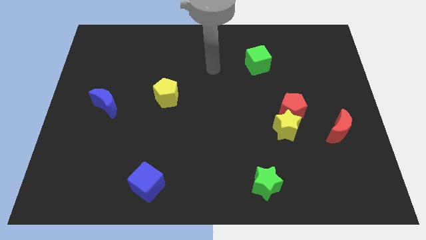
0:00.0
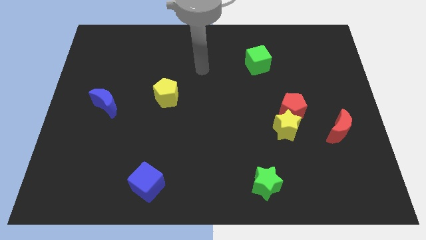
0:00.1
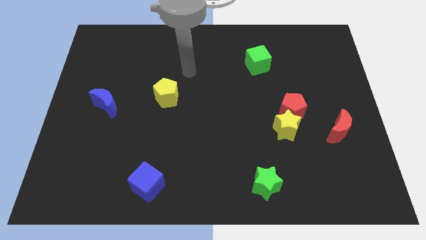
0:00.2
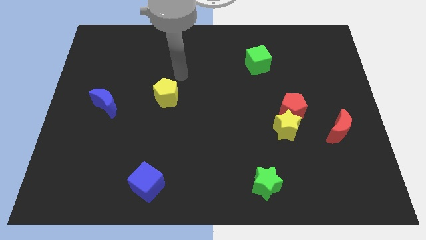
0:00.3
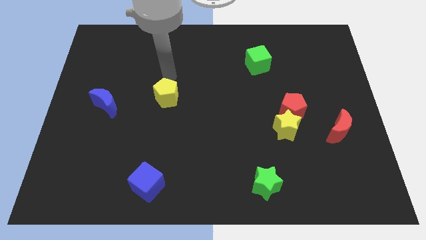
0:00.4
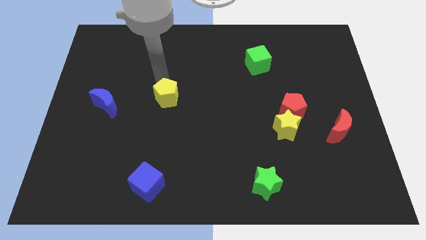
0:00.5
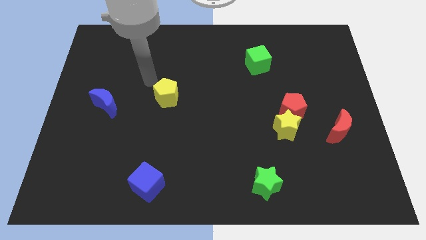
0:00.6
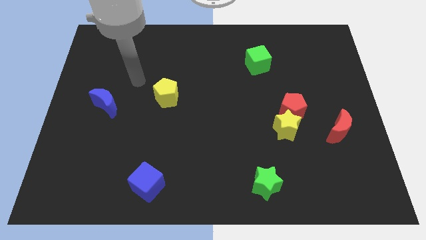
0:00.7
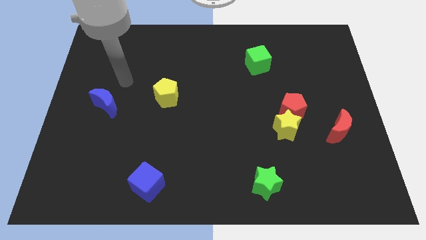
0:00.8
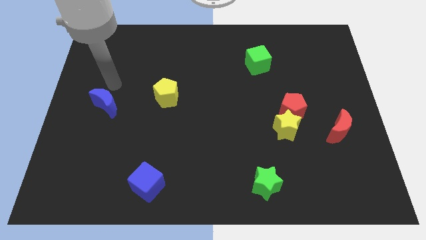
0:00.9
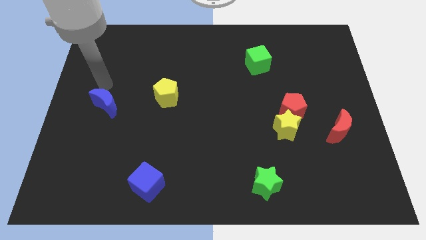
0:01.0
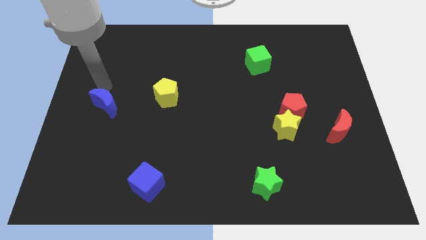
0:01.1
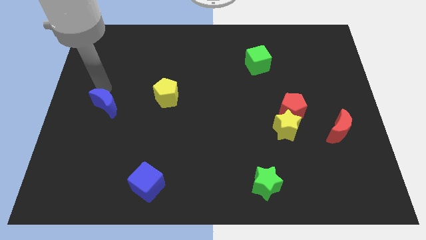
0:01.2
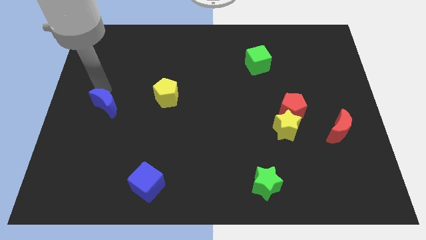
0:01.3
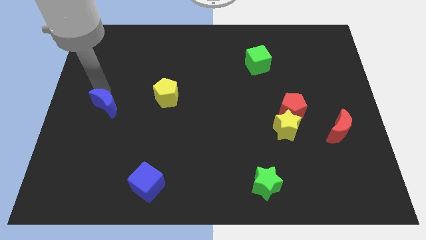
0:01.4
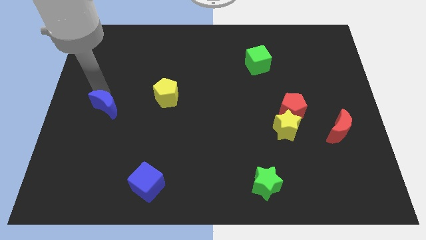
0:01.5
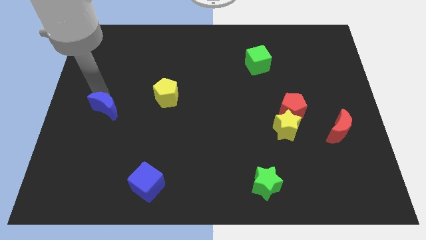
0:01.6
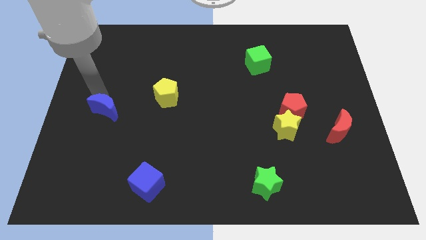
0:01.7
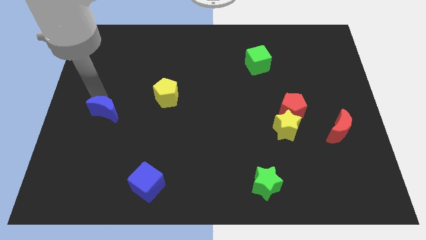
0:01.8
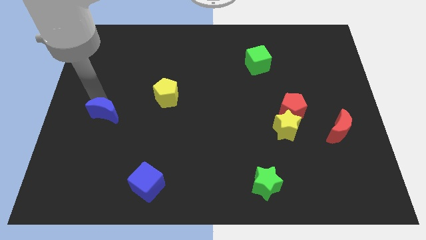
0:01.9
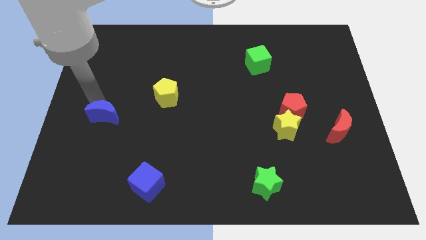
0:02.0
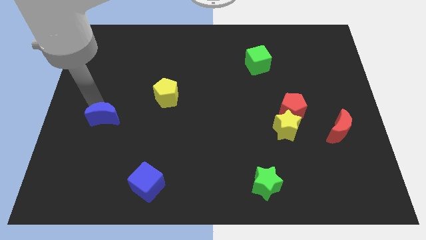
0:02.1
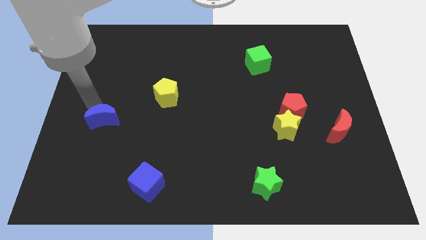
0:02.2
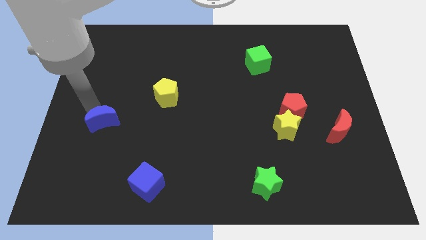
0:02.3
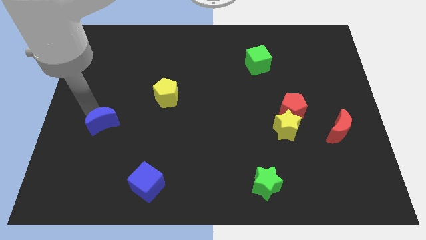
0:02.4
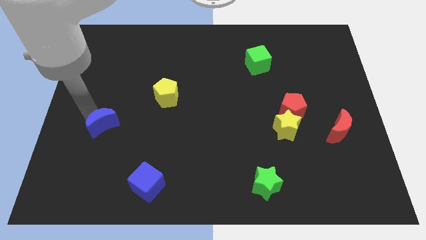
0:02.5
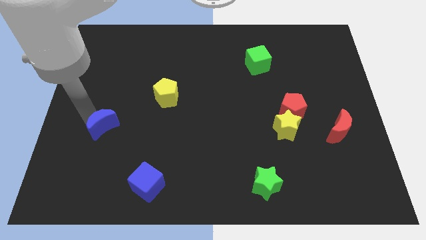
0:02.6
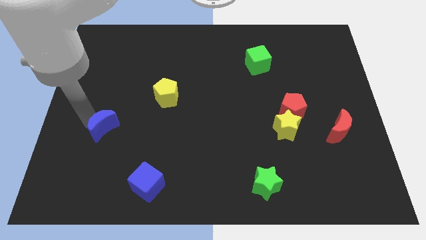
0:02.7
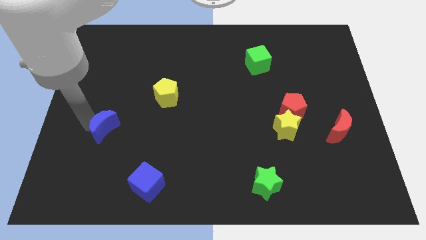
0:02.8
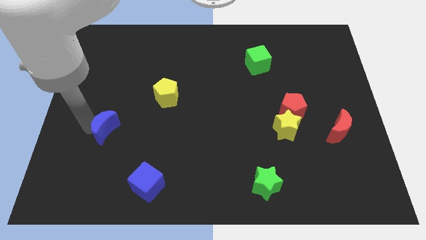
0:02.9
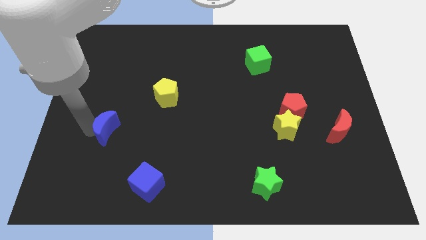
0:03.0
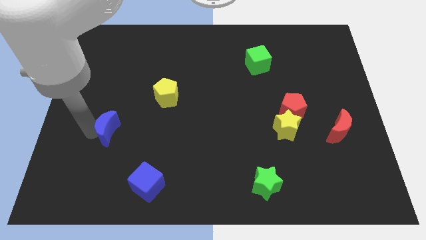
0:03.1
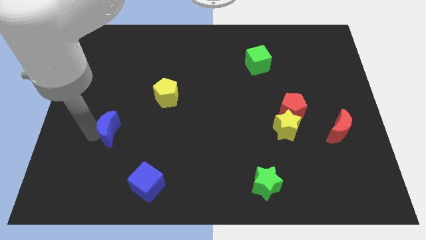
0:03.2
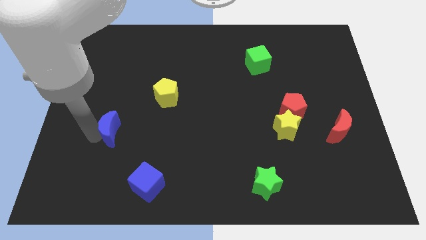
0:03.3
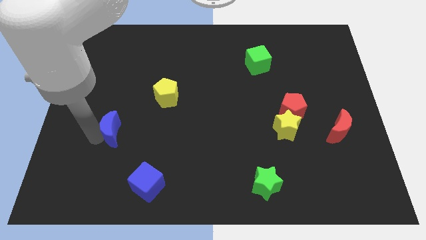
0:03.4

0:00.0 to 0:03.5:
push the blue moon a bit down and to the right diagonally

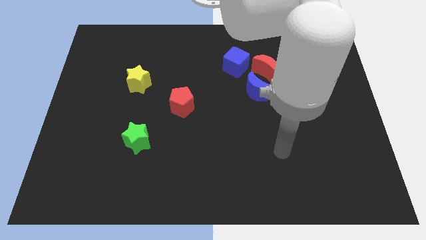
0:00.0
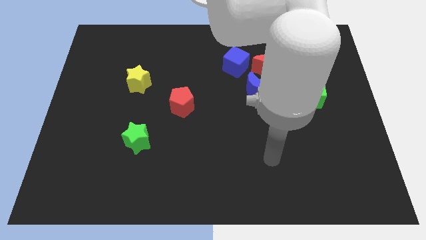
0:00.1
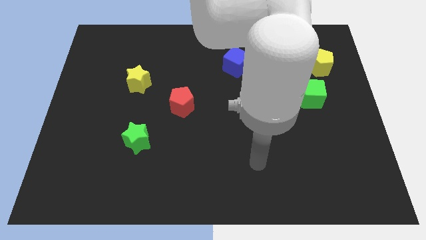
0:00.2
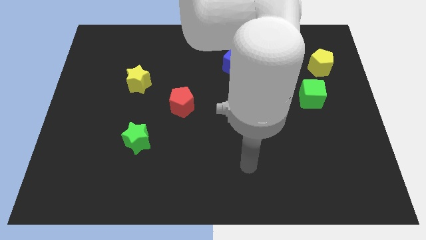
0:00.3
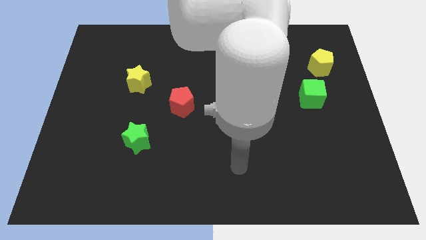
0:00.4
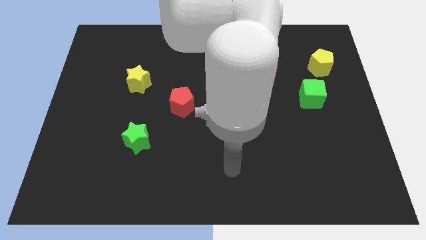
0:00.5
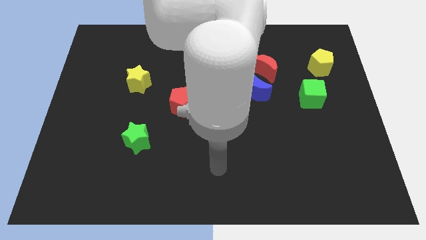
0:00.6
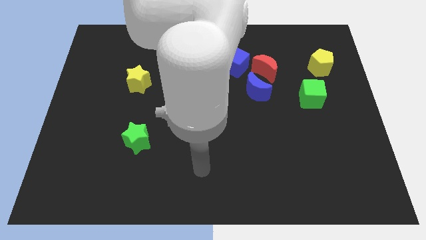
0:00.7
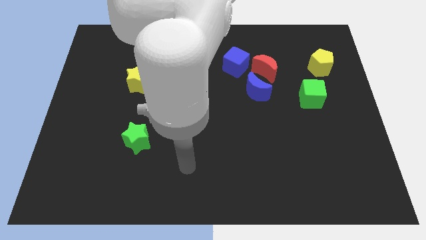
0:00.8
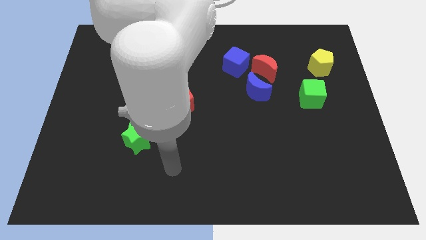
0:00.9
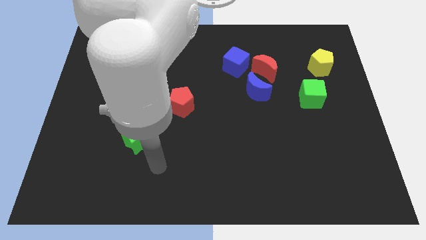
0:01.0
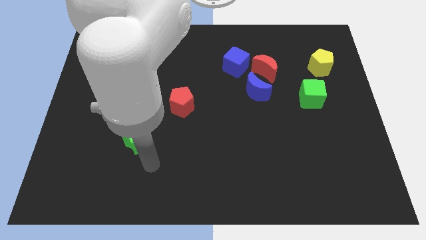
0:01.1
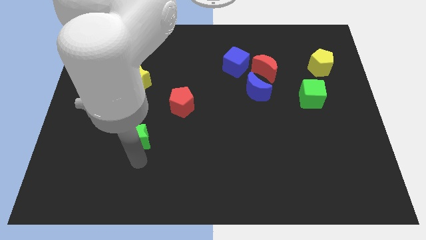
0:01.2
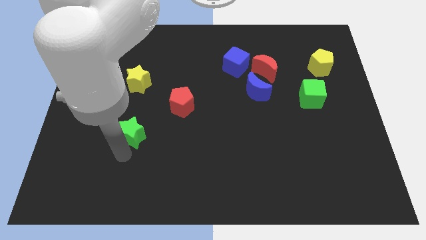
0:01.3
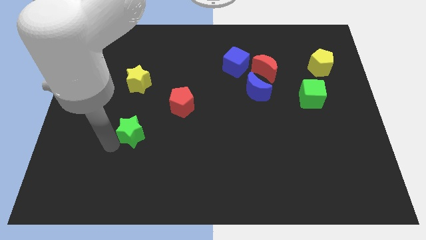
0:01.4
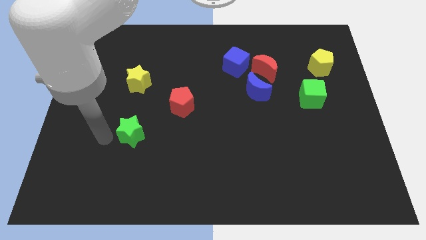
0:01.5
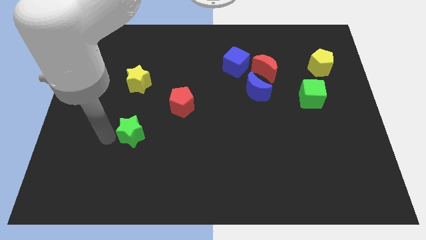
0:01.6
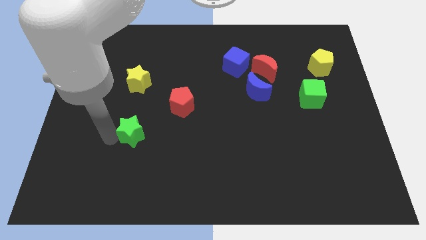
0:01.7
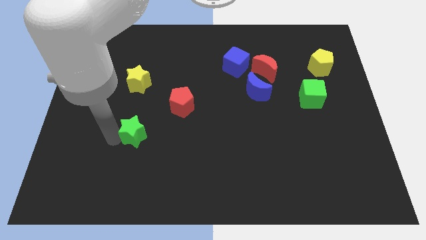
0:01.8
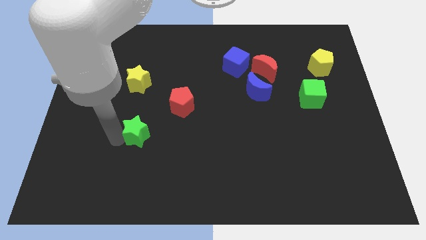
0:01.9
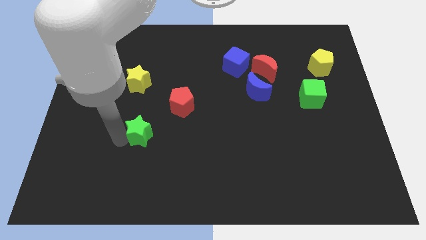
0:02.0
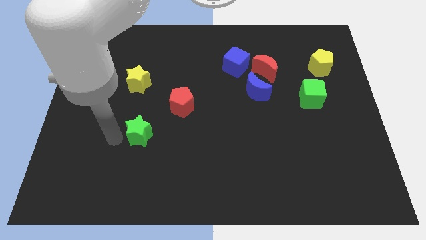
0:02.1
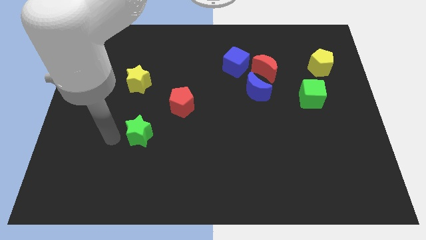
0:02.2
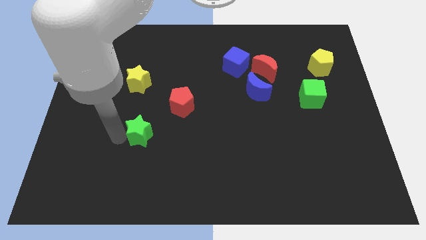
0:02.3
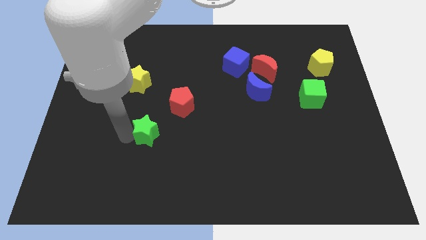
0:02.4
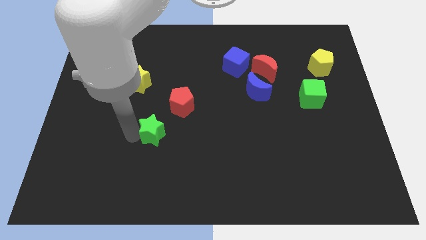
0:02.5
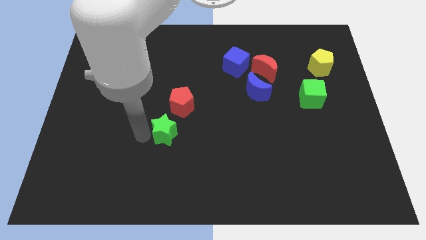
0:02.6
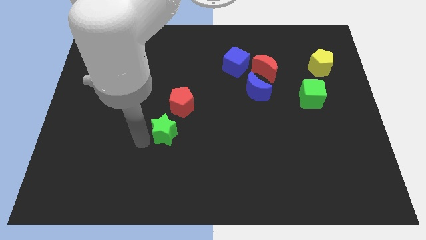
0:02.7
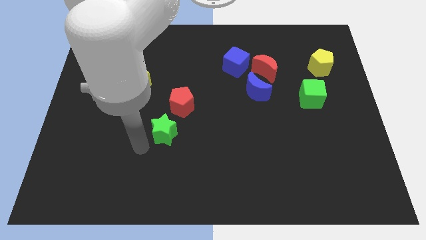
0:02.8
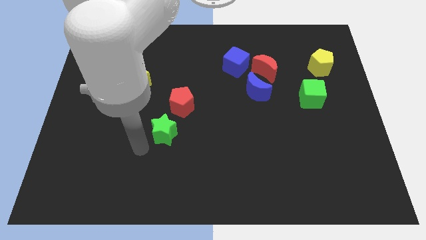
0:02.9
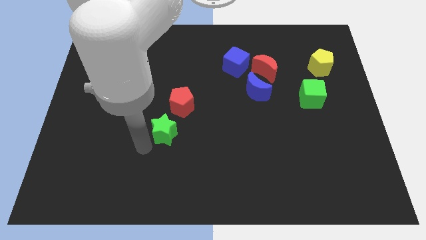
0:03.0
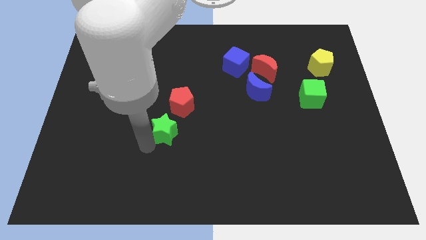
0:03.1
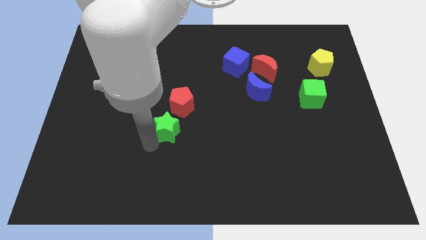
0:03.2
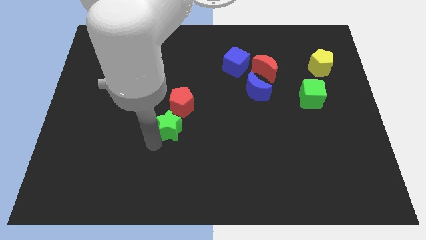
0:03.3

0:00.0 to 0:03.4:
push the green star somewhat diagonally up and to the right

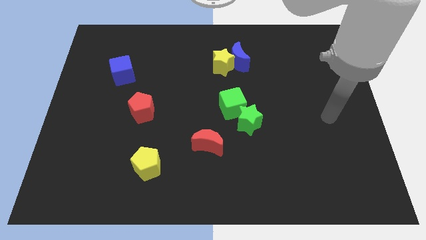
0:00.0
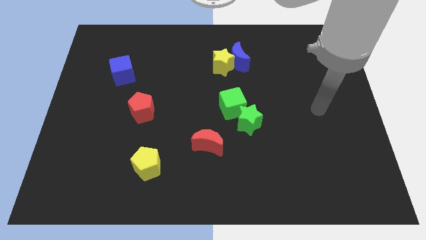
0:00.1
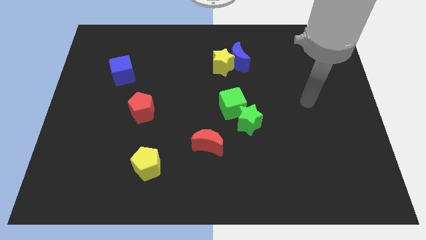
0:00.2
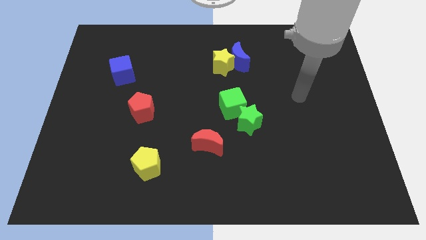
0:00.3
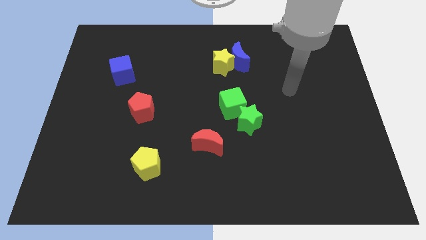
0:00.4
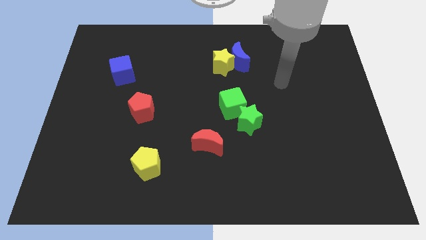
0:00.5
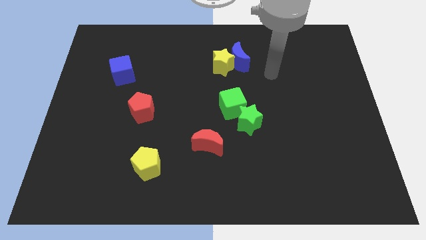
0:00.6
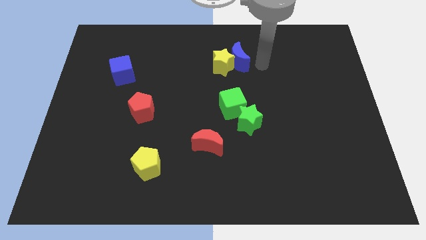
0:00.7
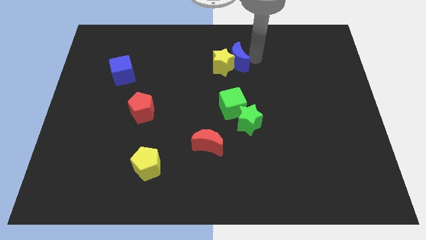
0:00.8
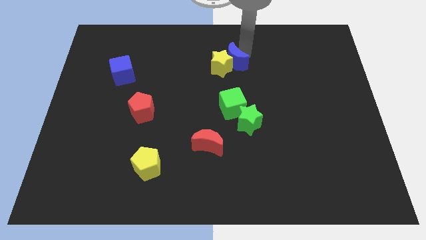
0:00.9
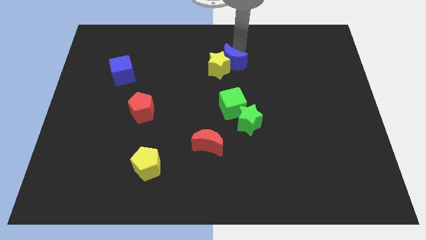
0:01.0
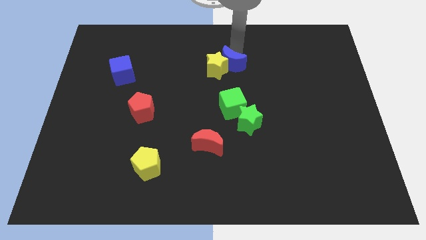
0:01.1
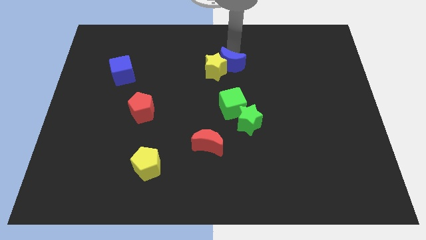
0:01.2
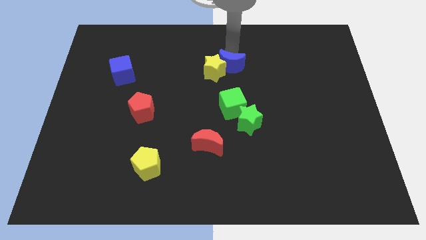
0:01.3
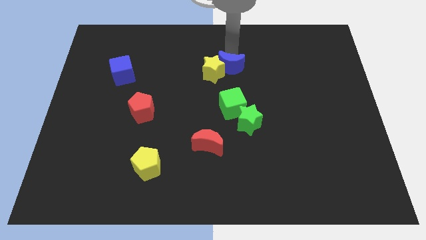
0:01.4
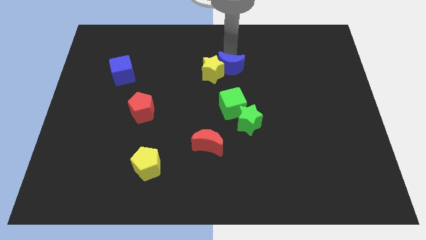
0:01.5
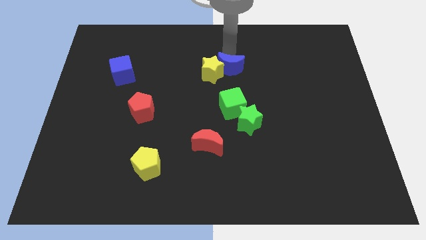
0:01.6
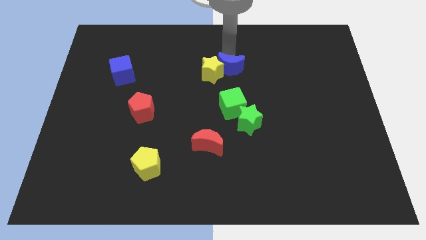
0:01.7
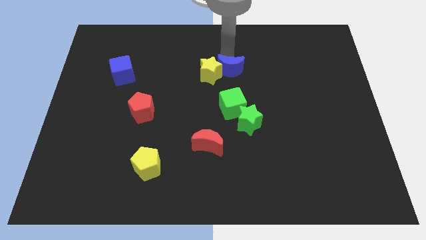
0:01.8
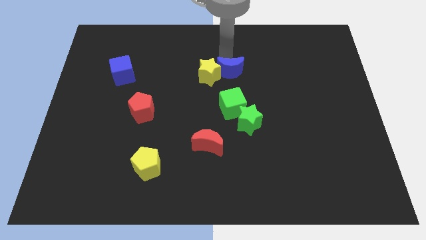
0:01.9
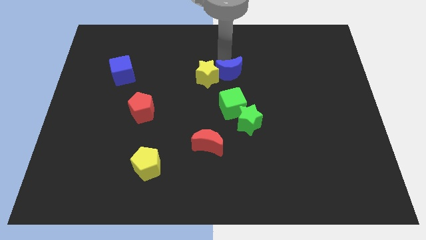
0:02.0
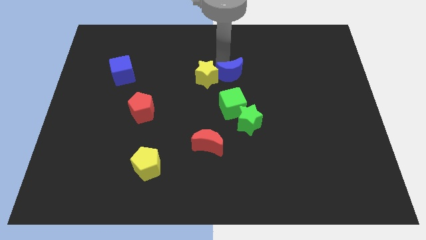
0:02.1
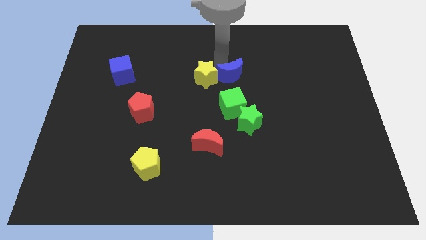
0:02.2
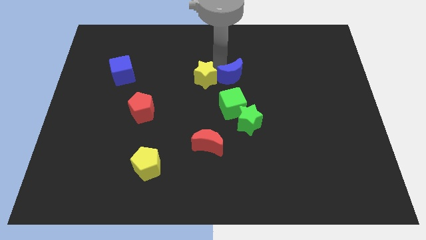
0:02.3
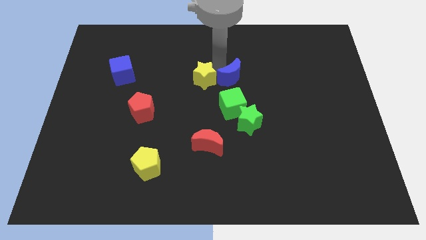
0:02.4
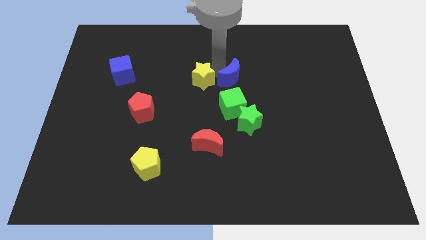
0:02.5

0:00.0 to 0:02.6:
move the yellow star down and left diagonally a bit
